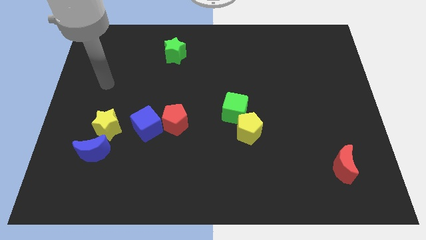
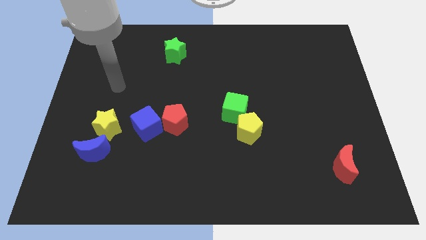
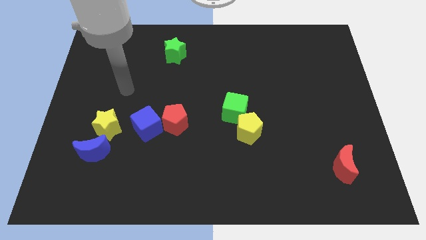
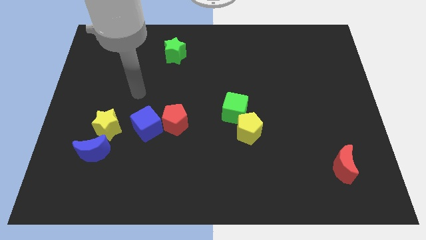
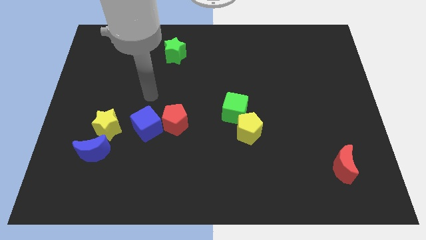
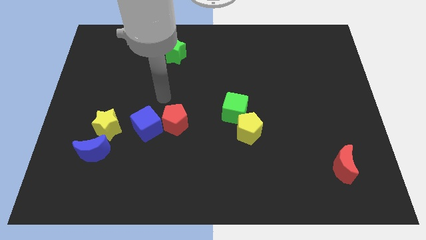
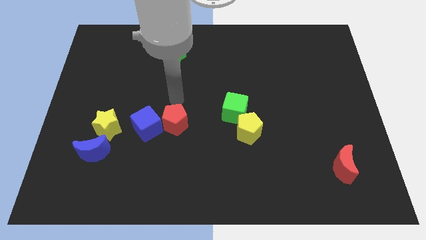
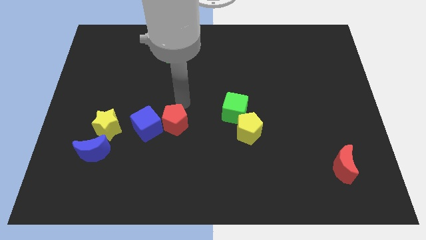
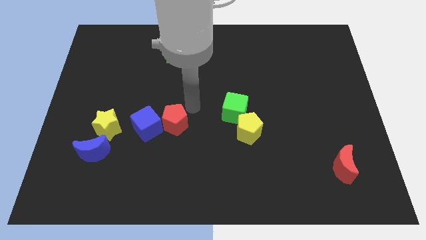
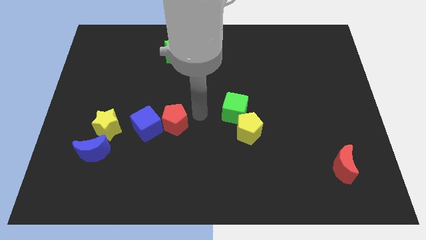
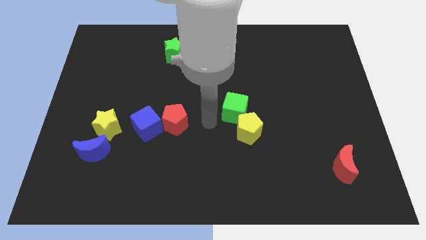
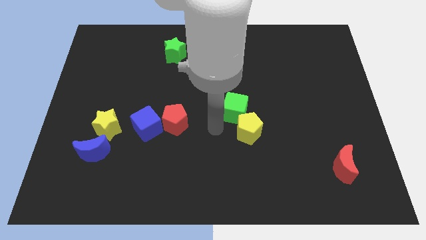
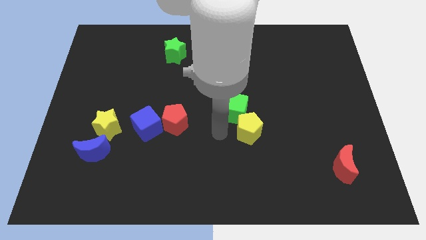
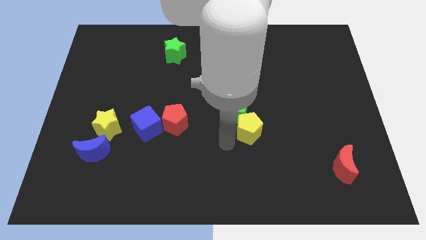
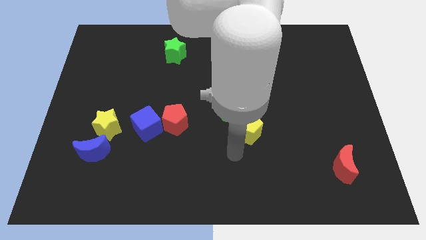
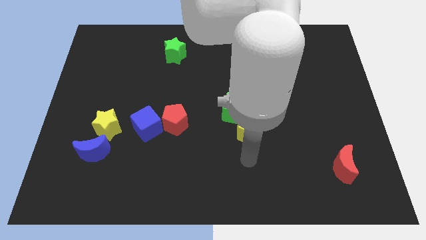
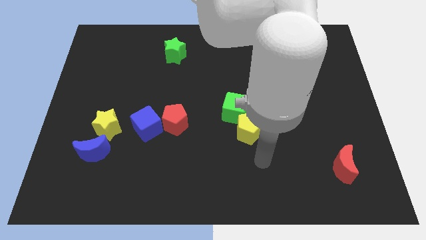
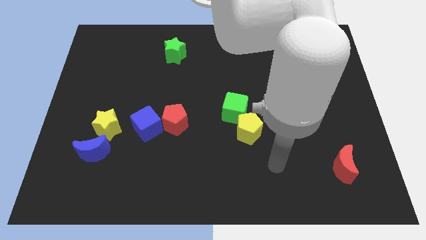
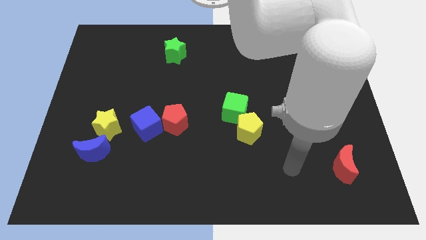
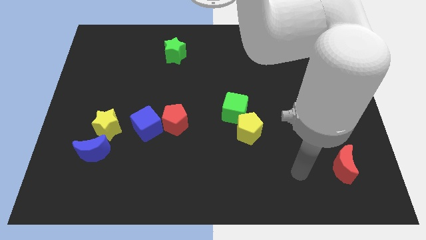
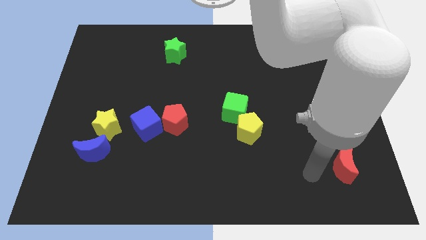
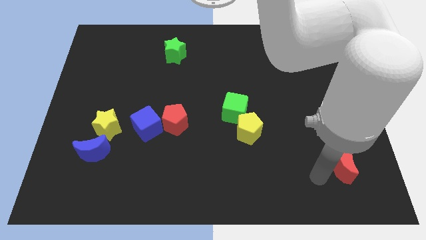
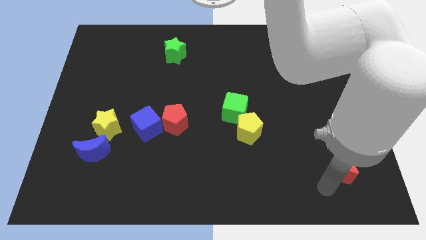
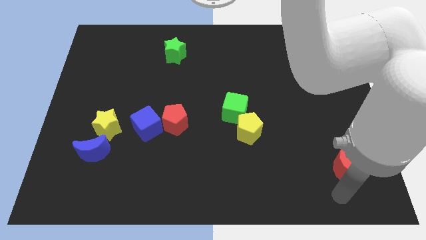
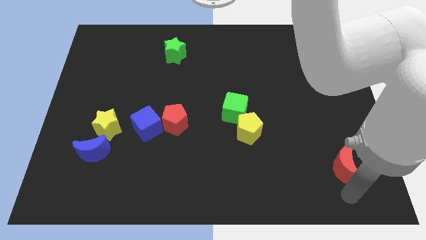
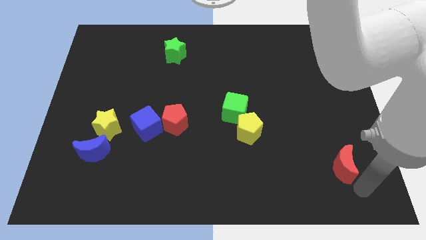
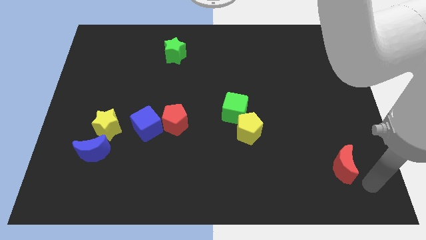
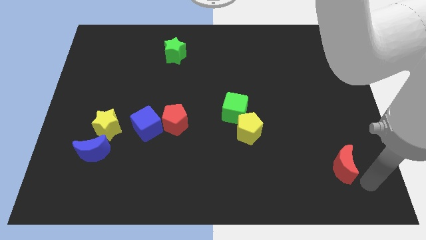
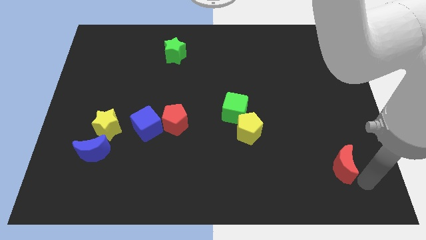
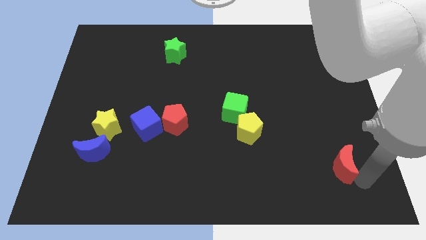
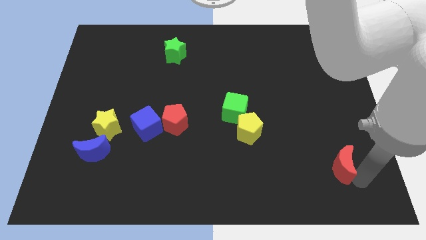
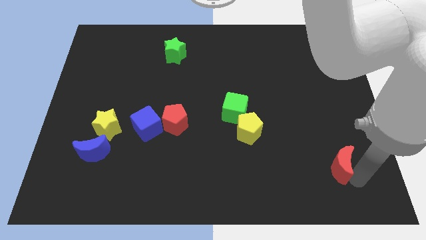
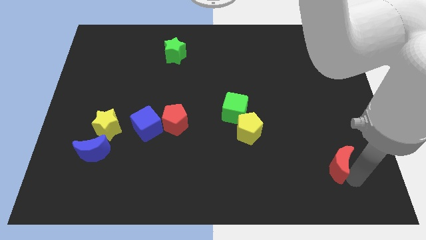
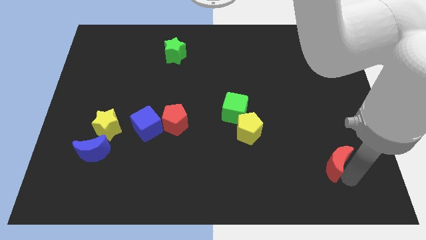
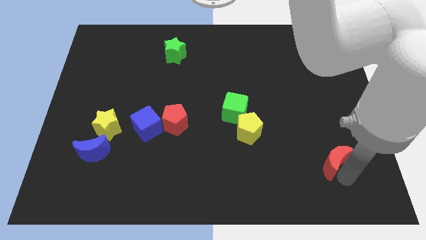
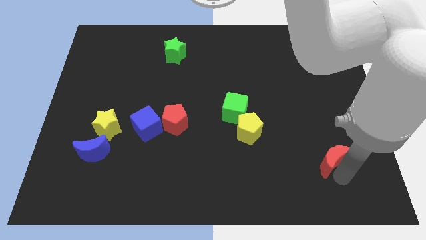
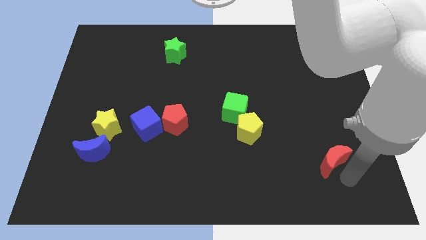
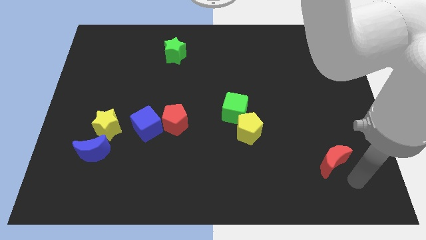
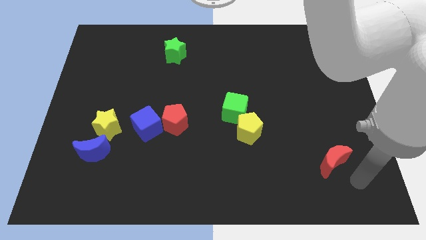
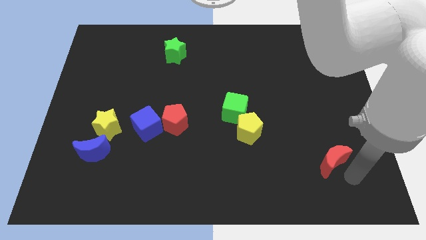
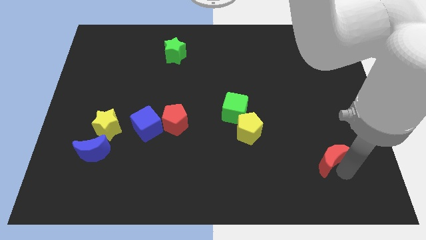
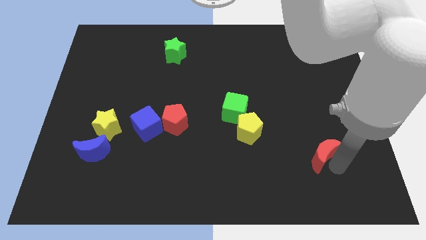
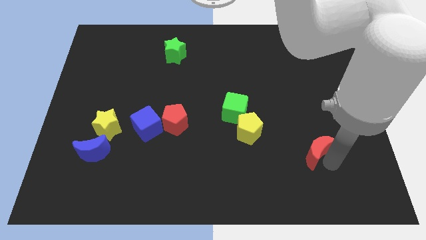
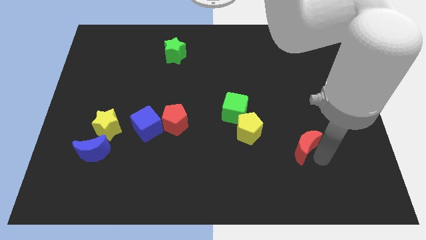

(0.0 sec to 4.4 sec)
move the red moon a little bit up and left

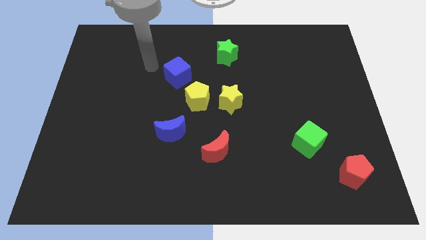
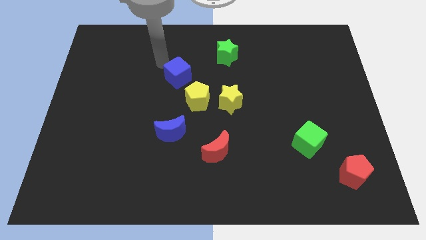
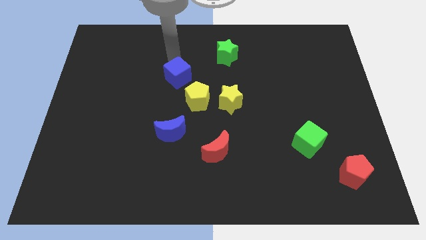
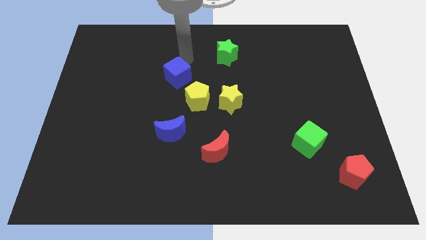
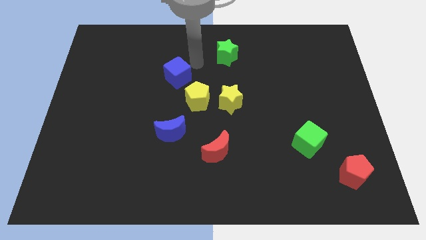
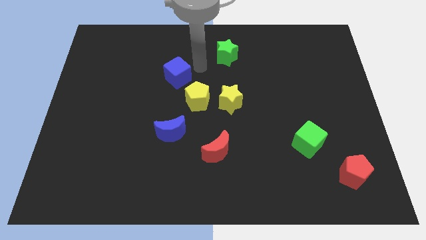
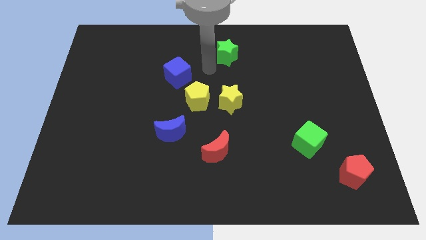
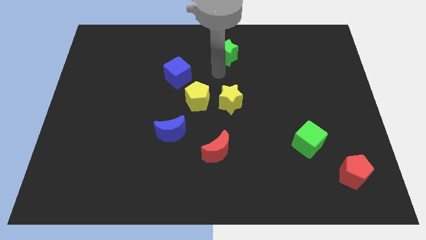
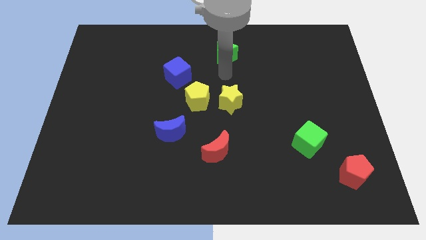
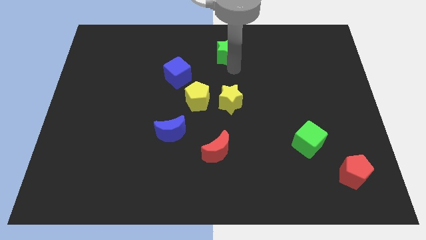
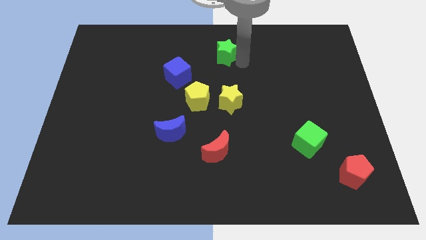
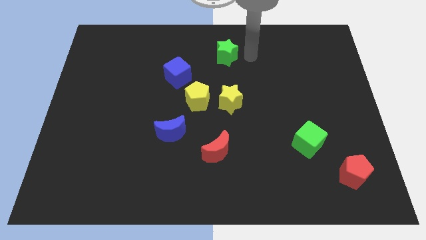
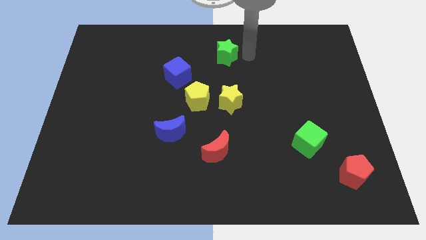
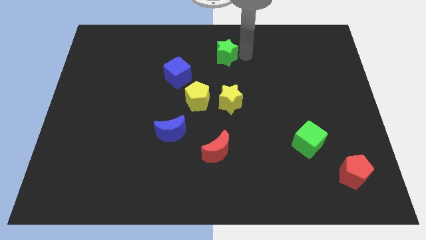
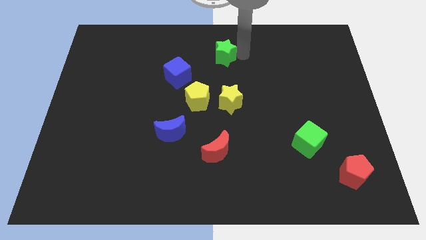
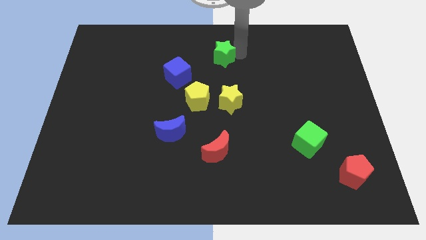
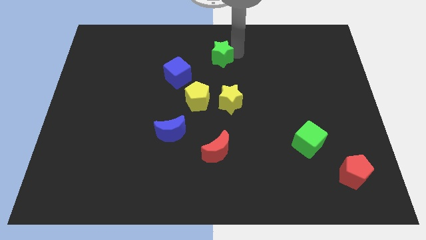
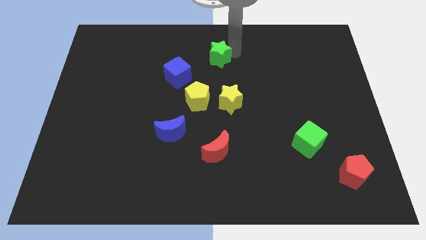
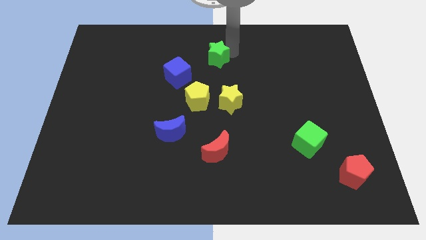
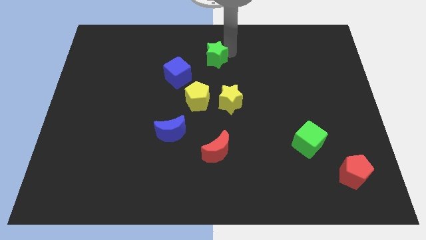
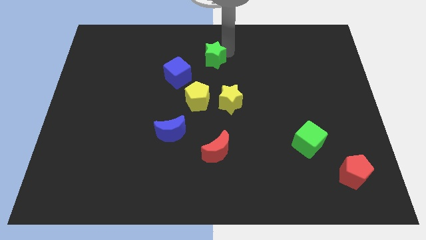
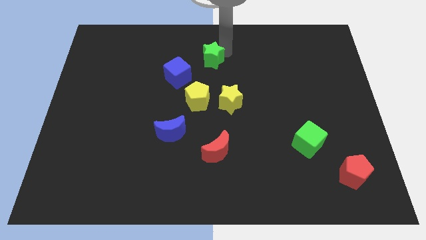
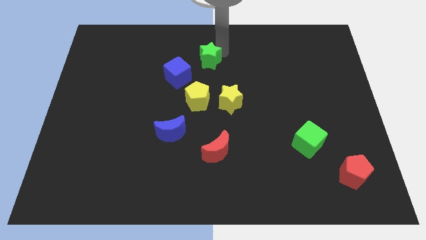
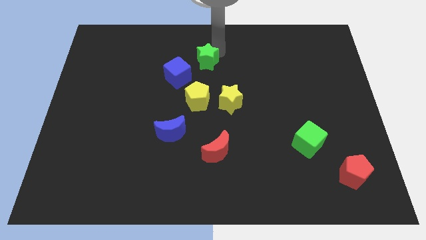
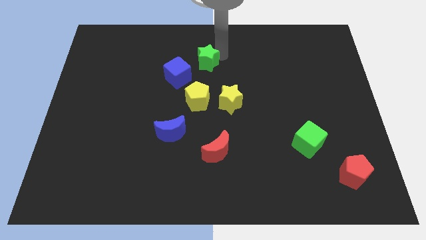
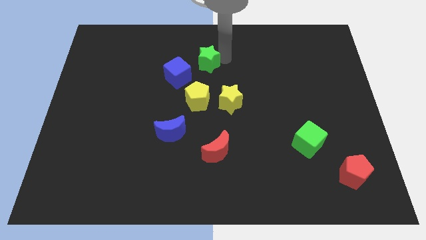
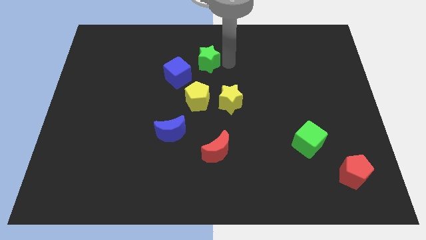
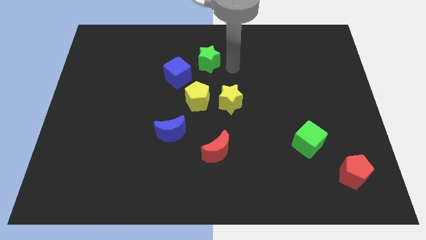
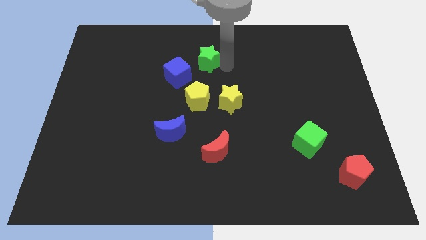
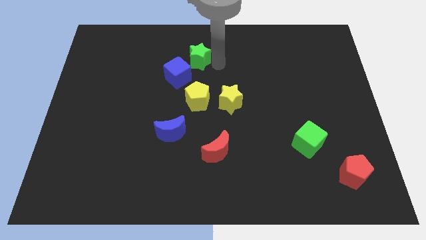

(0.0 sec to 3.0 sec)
slightly move the green star to the left

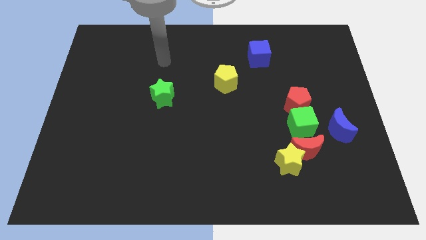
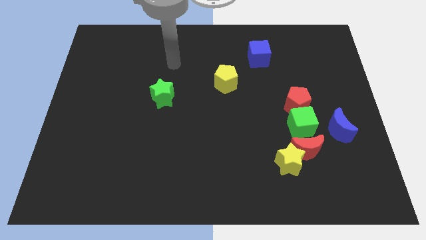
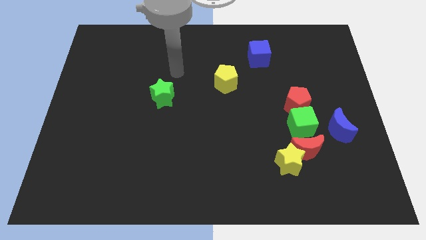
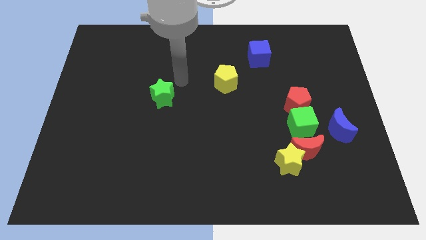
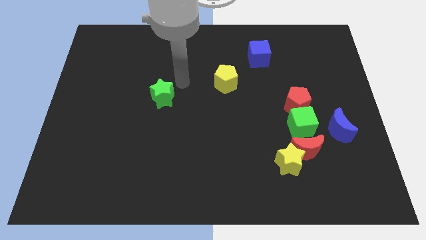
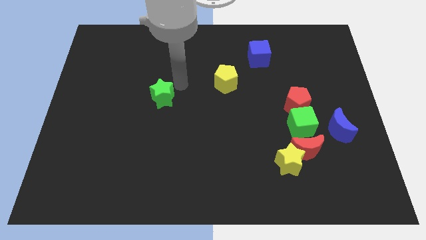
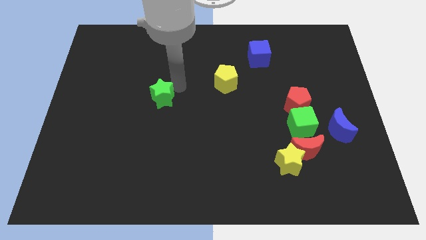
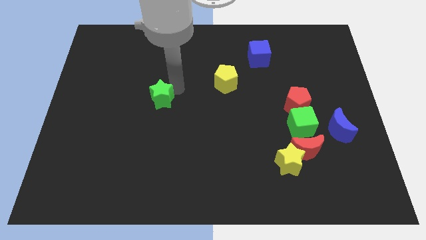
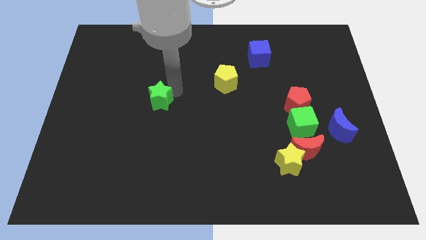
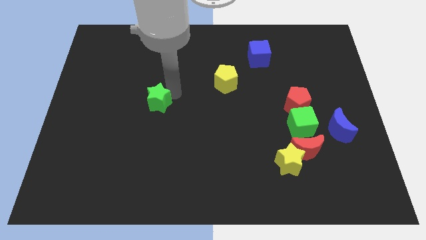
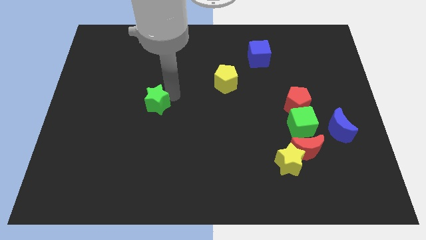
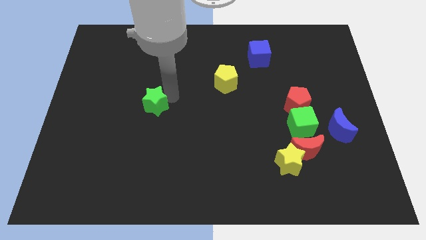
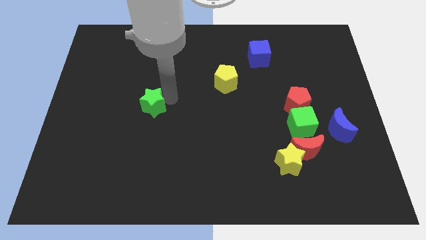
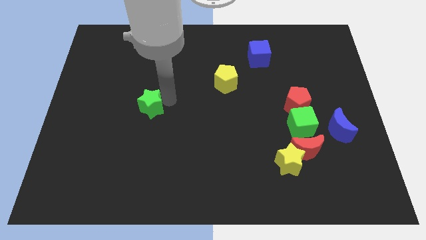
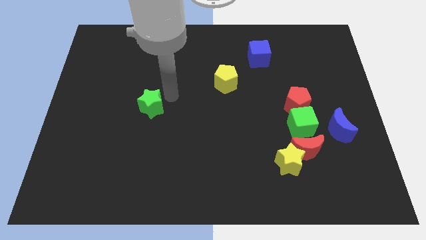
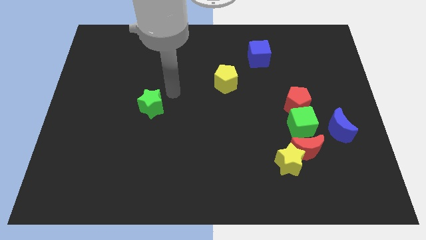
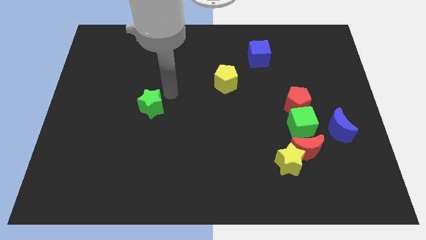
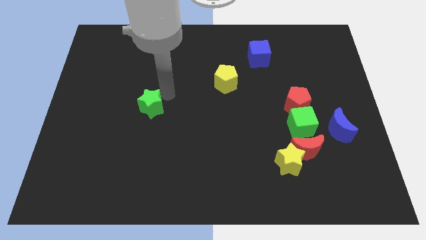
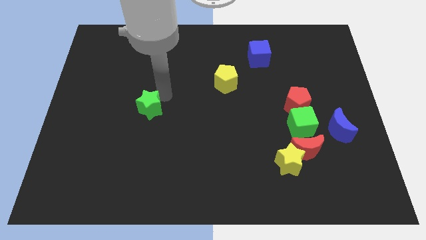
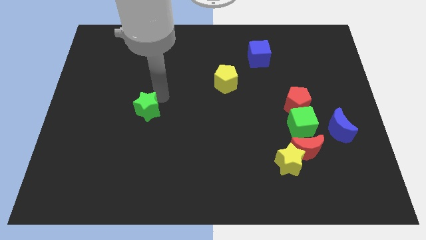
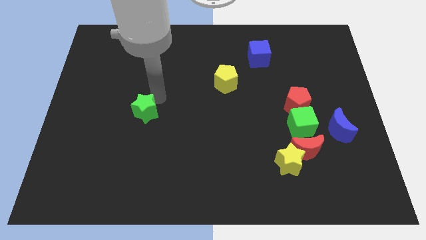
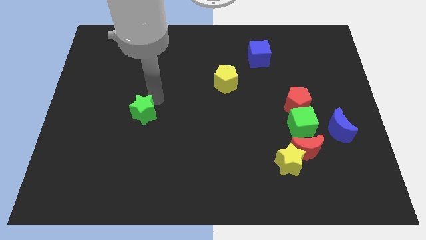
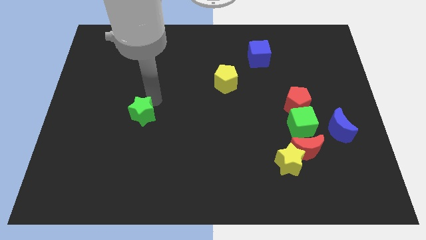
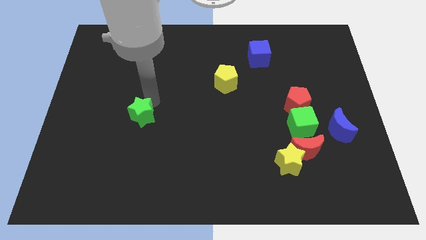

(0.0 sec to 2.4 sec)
slightly slide the green star diagonally downwards and to the left
